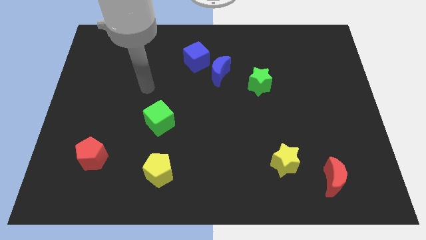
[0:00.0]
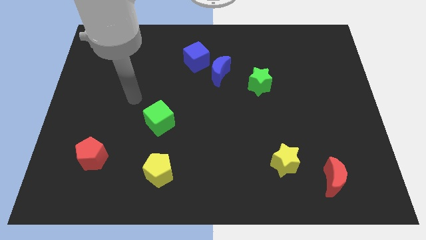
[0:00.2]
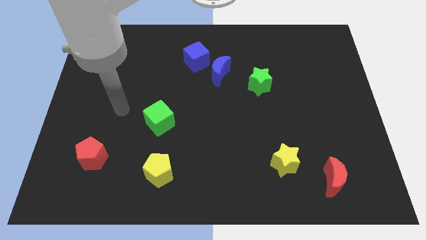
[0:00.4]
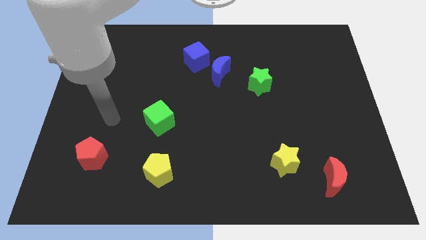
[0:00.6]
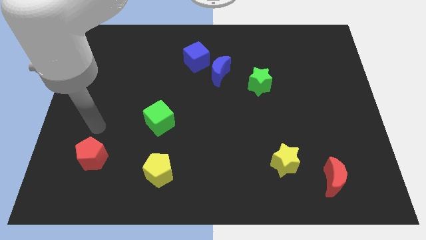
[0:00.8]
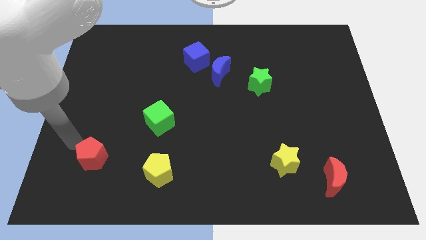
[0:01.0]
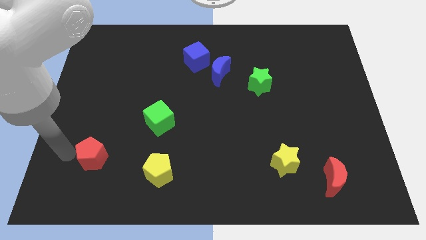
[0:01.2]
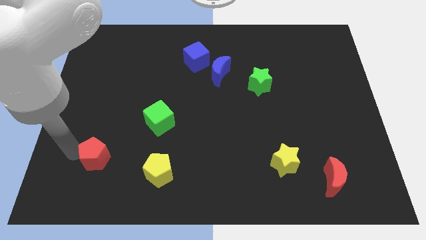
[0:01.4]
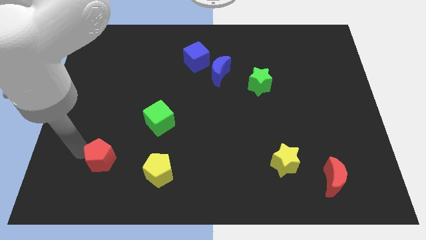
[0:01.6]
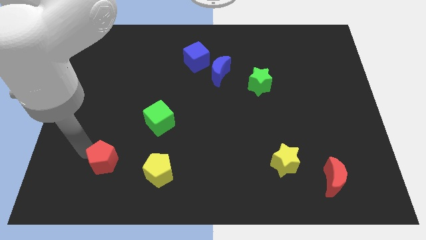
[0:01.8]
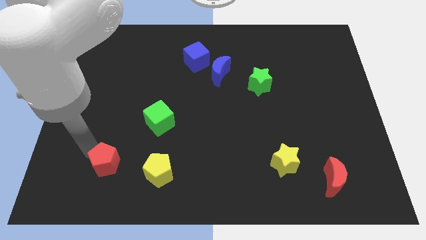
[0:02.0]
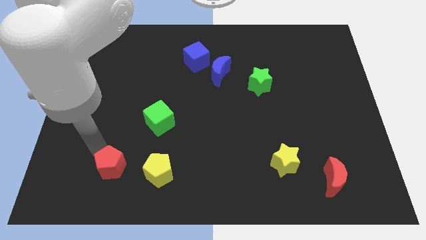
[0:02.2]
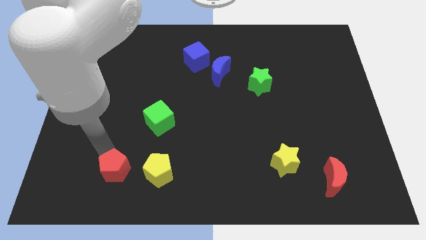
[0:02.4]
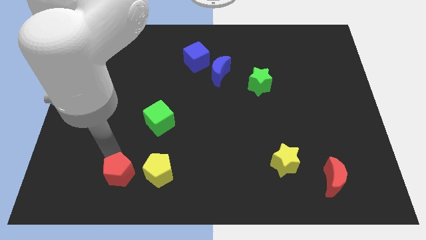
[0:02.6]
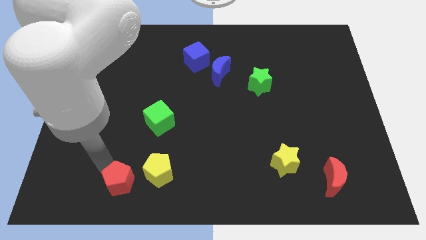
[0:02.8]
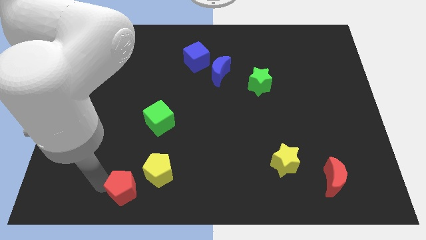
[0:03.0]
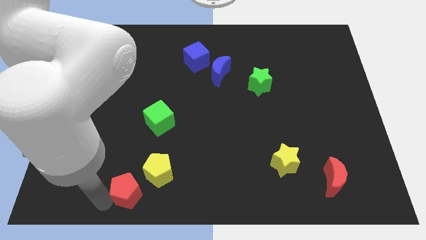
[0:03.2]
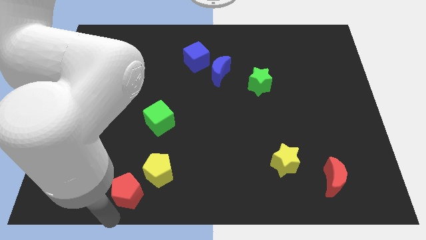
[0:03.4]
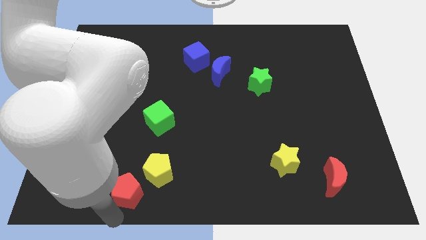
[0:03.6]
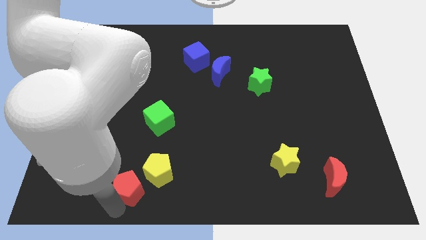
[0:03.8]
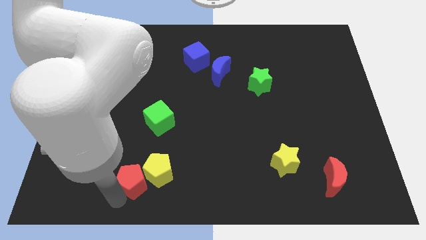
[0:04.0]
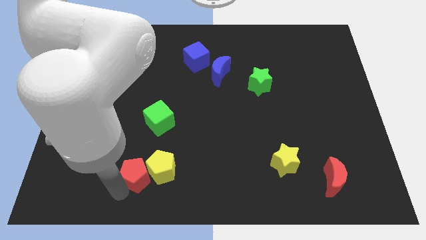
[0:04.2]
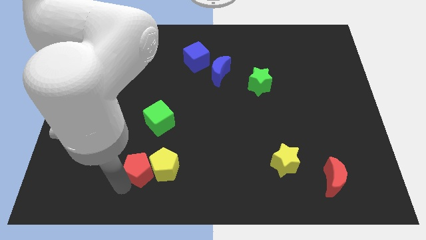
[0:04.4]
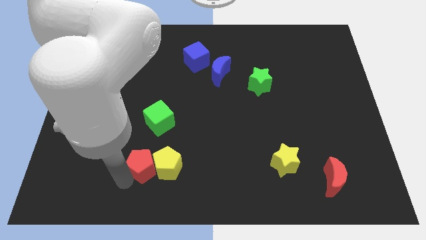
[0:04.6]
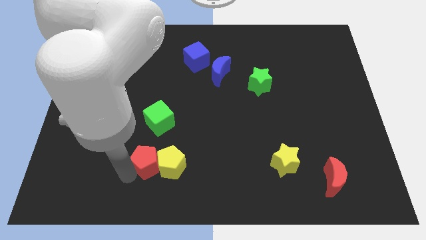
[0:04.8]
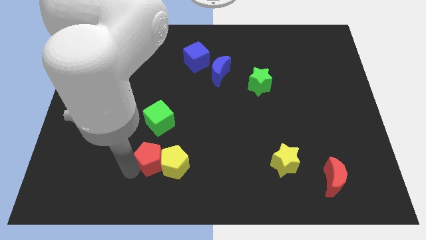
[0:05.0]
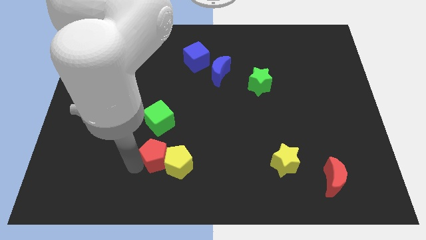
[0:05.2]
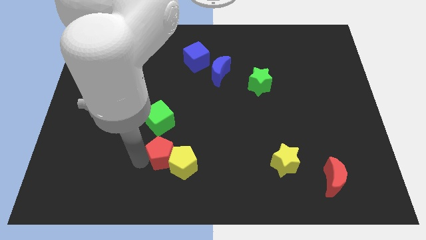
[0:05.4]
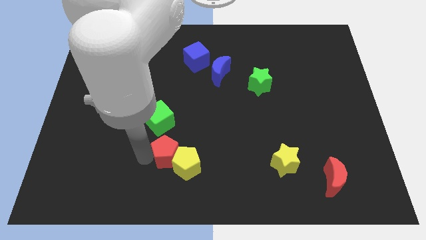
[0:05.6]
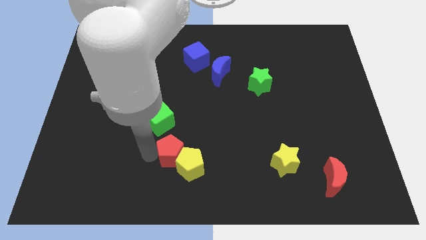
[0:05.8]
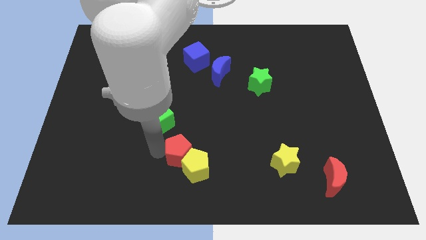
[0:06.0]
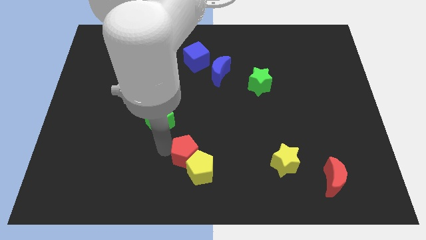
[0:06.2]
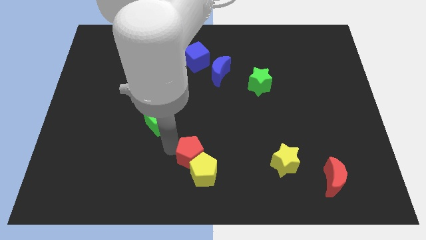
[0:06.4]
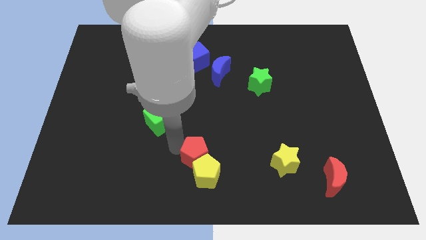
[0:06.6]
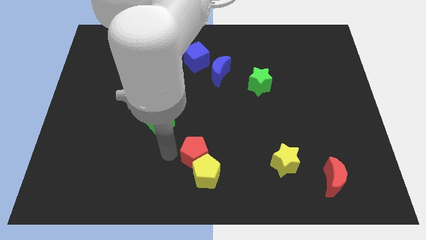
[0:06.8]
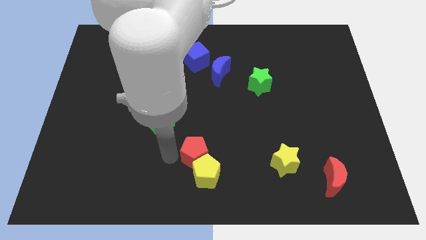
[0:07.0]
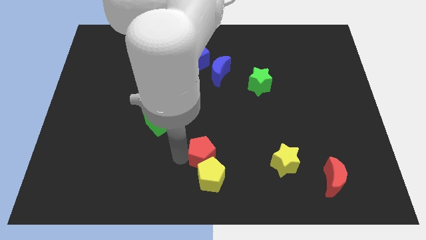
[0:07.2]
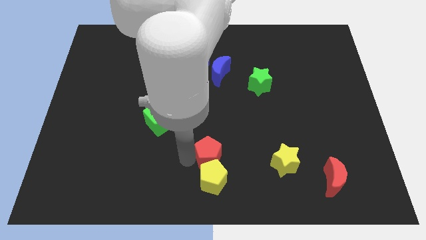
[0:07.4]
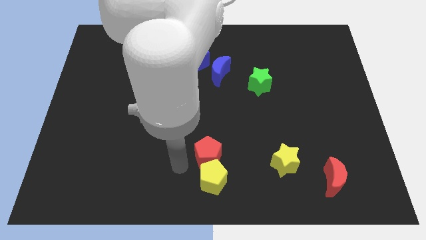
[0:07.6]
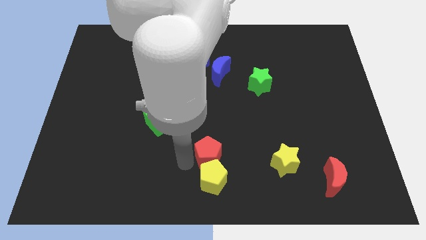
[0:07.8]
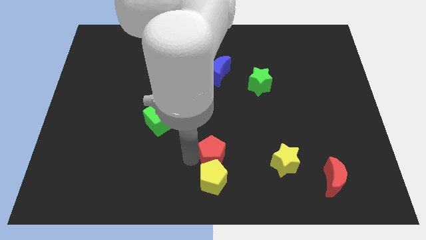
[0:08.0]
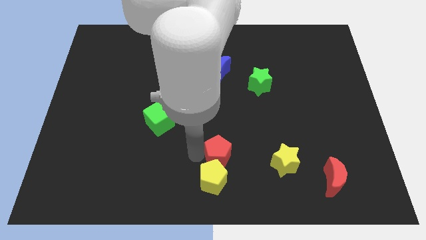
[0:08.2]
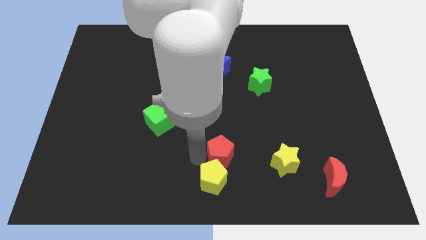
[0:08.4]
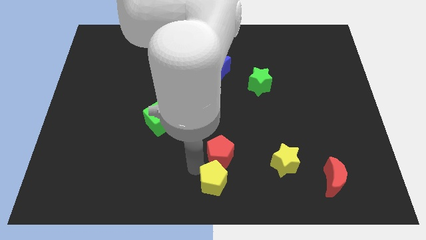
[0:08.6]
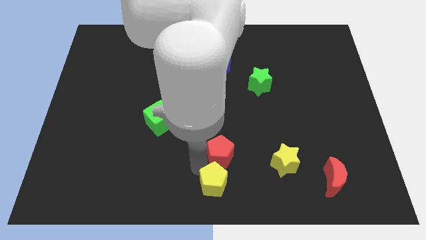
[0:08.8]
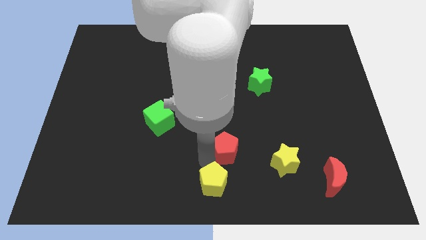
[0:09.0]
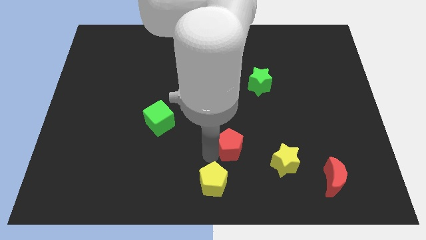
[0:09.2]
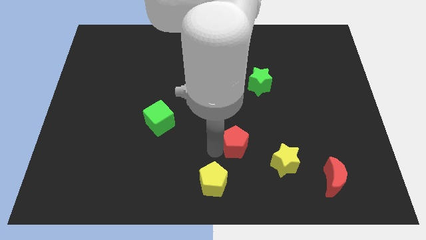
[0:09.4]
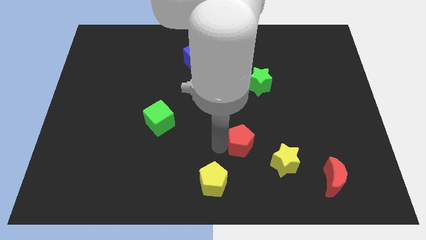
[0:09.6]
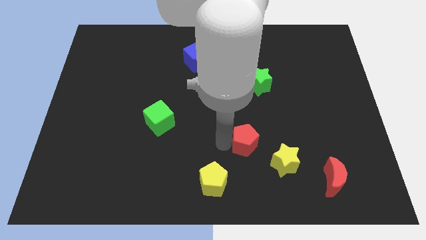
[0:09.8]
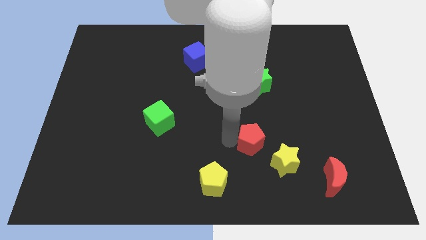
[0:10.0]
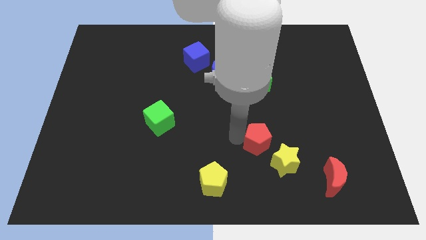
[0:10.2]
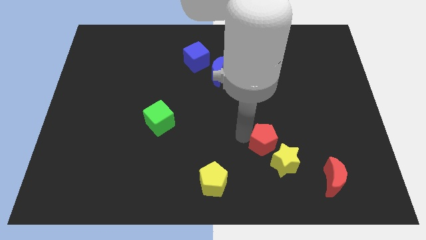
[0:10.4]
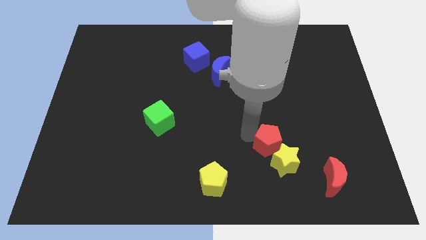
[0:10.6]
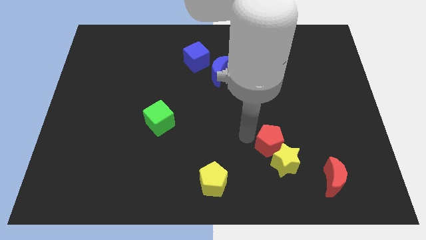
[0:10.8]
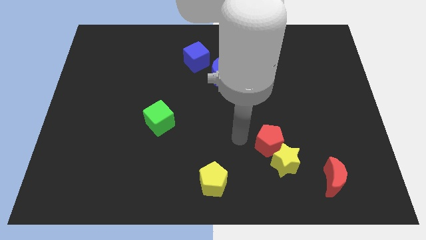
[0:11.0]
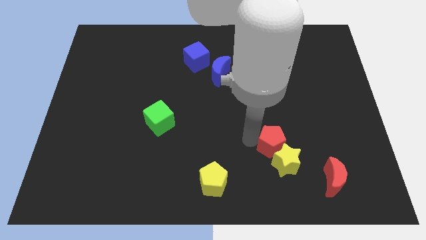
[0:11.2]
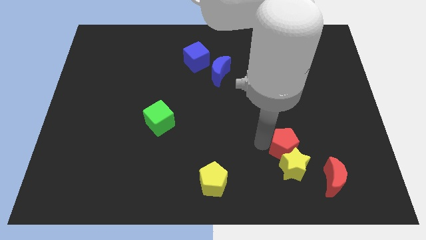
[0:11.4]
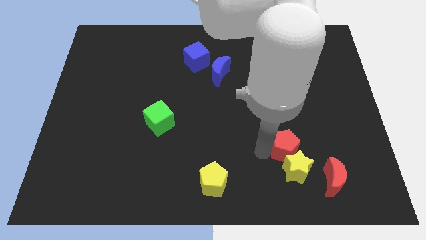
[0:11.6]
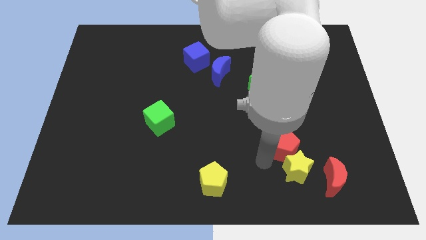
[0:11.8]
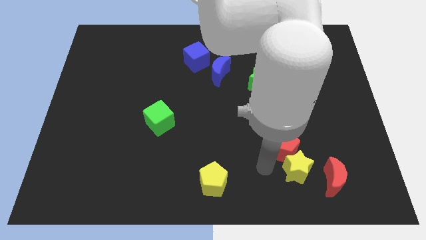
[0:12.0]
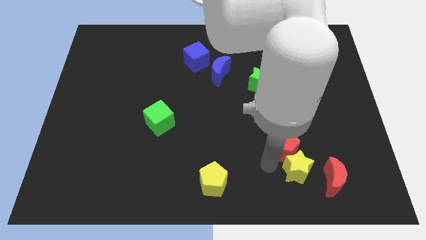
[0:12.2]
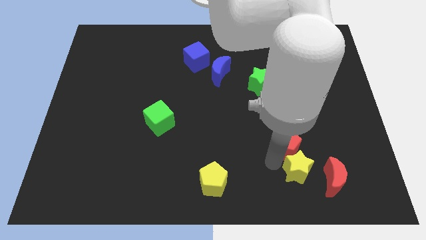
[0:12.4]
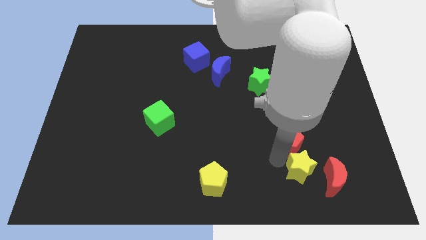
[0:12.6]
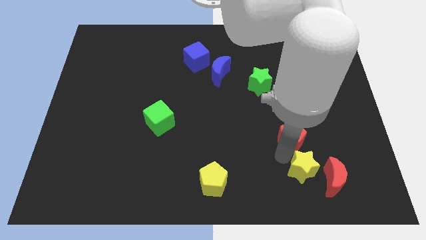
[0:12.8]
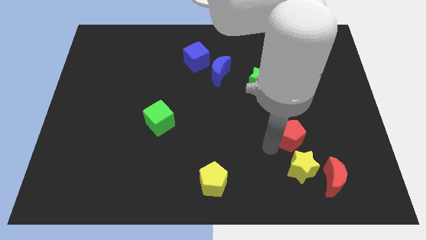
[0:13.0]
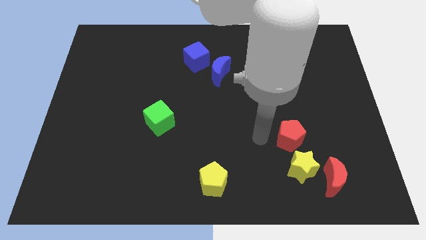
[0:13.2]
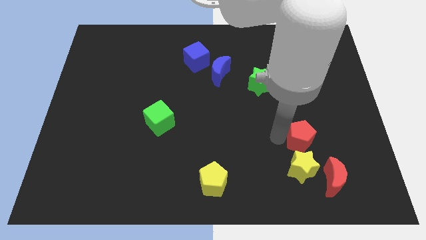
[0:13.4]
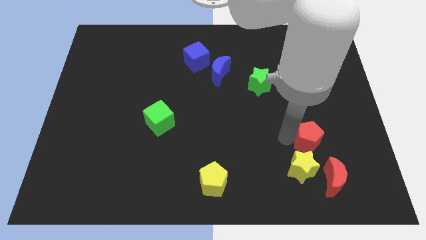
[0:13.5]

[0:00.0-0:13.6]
move the red pentagon to the top side of the red moon

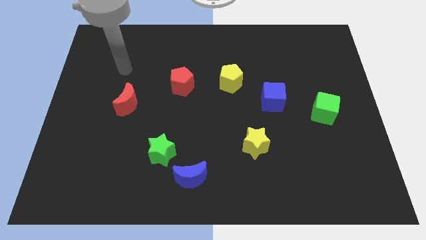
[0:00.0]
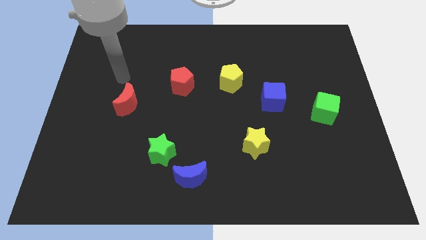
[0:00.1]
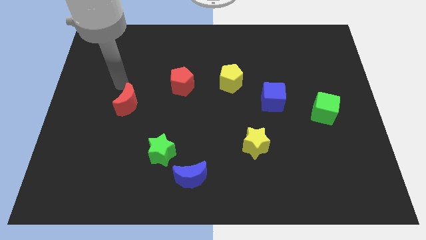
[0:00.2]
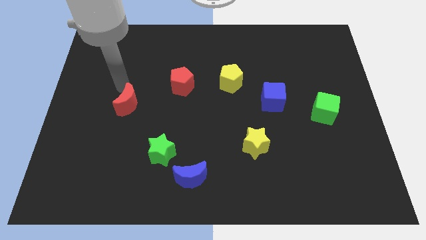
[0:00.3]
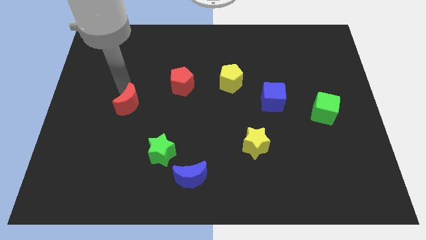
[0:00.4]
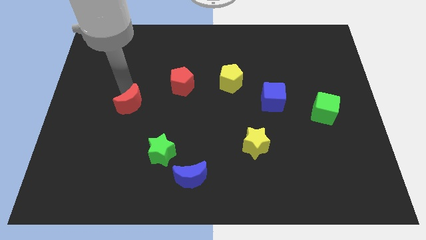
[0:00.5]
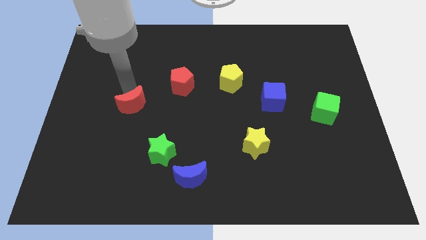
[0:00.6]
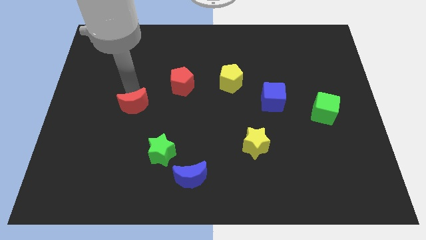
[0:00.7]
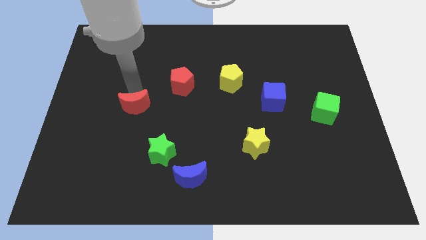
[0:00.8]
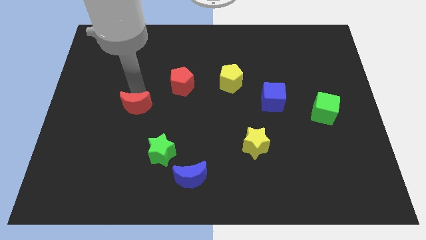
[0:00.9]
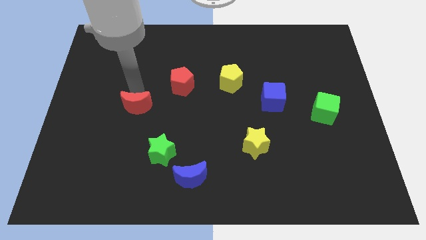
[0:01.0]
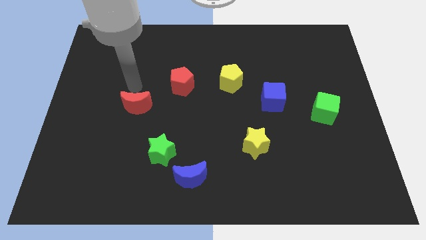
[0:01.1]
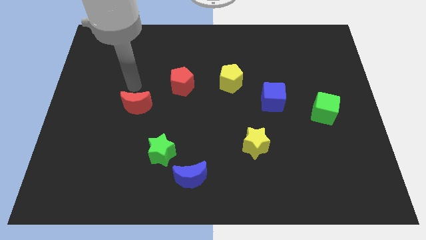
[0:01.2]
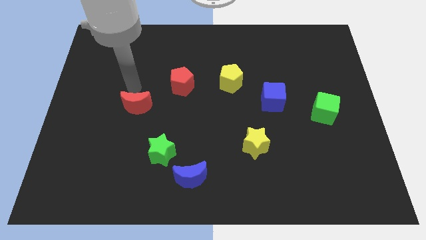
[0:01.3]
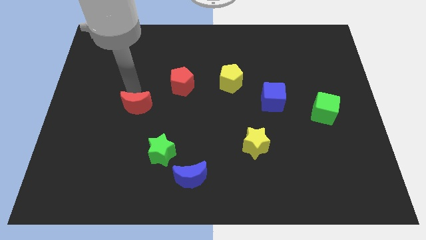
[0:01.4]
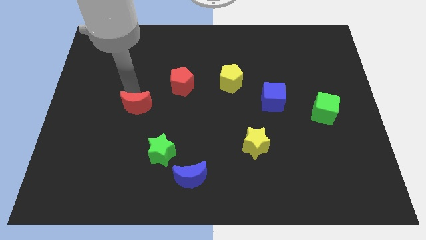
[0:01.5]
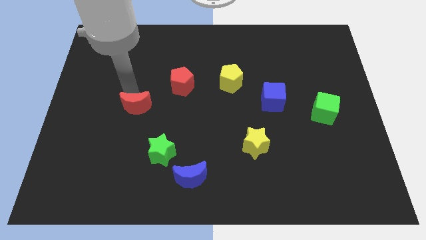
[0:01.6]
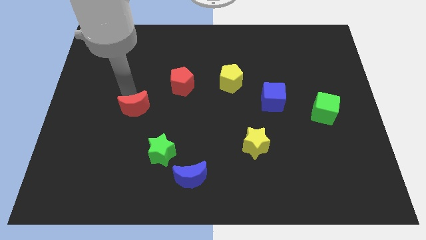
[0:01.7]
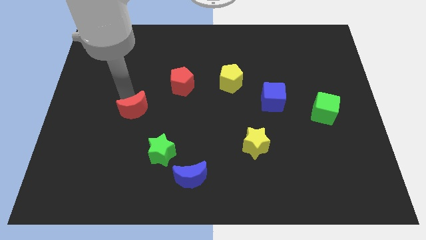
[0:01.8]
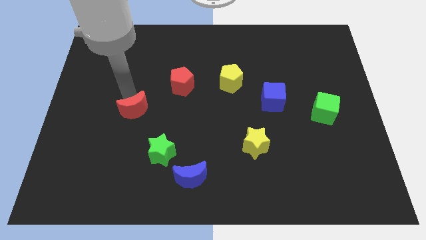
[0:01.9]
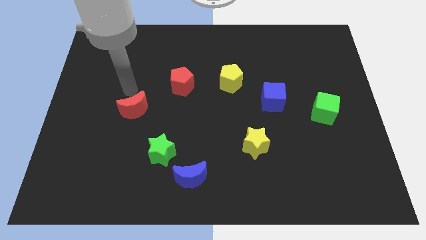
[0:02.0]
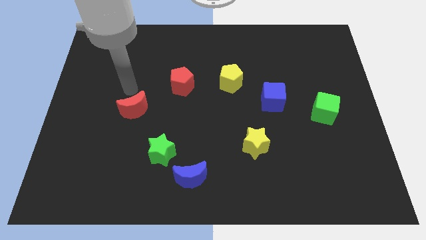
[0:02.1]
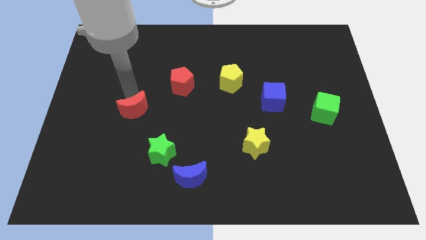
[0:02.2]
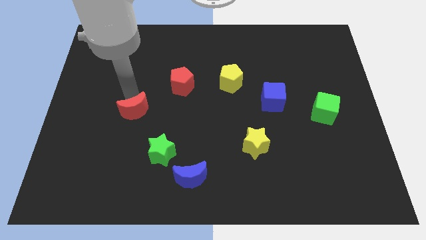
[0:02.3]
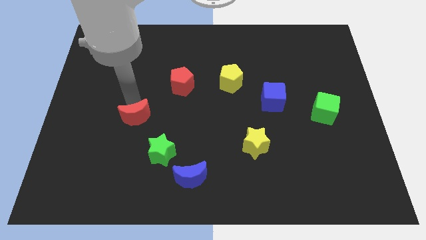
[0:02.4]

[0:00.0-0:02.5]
slide the red moon diagonally up and to the left of the green star
